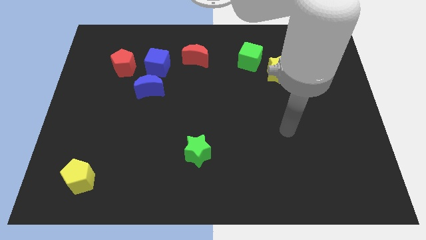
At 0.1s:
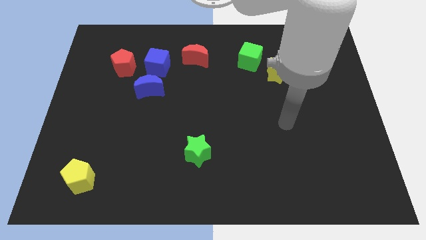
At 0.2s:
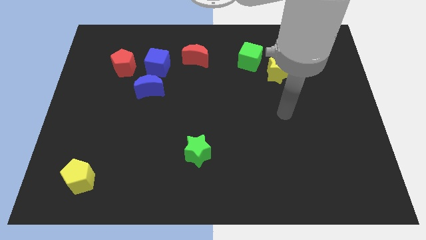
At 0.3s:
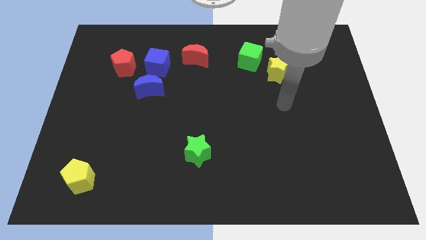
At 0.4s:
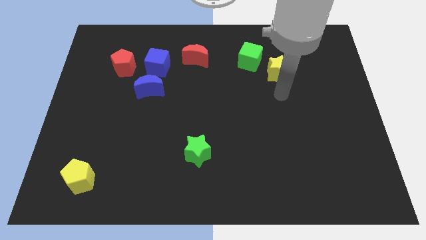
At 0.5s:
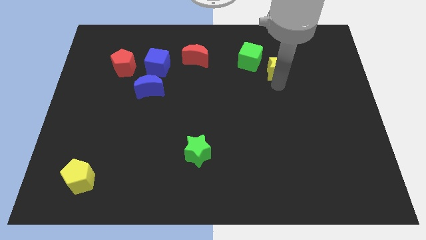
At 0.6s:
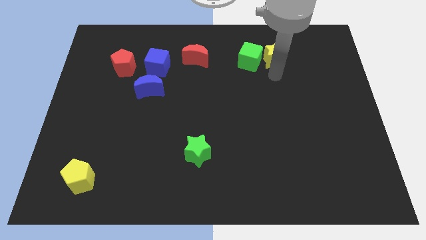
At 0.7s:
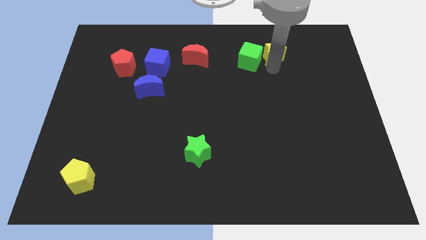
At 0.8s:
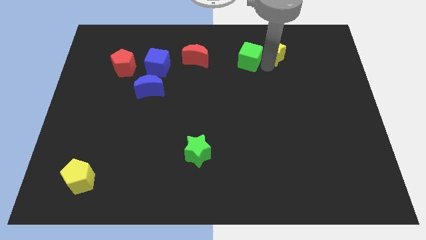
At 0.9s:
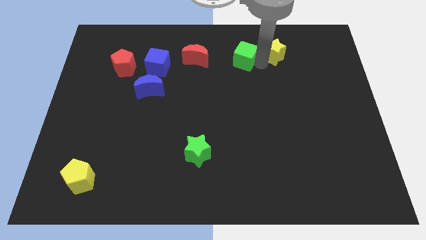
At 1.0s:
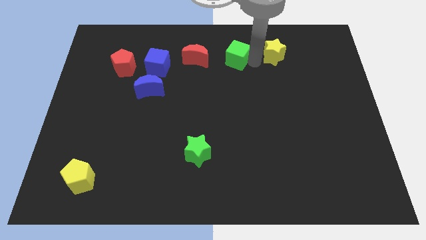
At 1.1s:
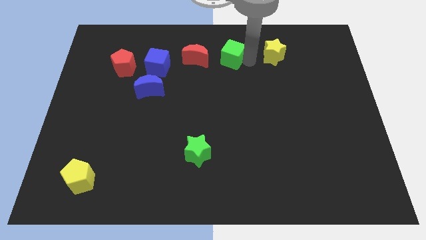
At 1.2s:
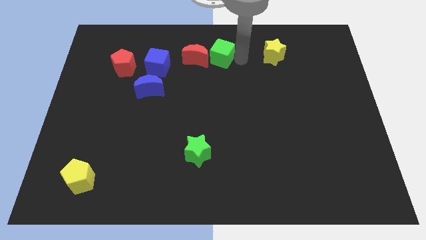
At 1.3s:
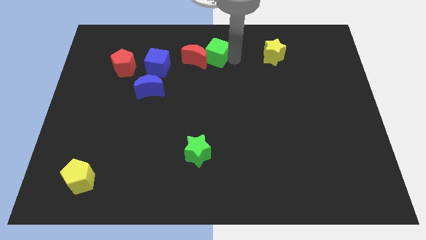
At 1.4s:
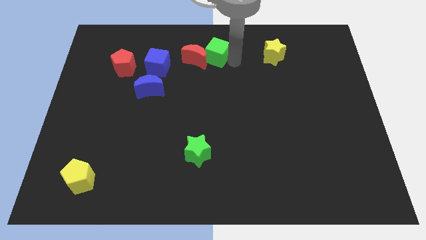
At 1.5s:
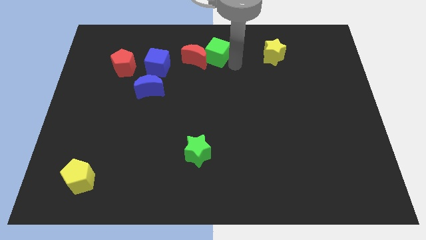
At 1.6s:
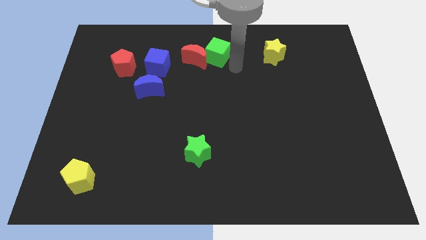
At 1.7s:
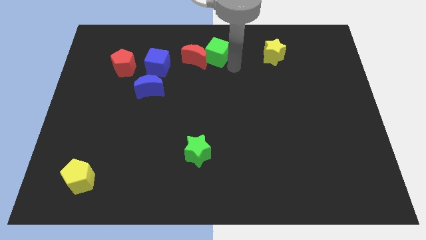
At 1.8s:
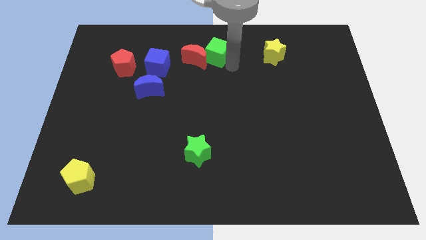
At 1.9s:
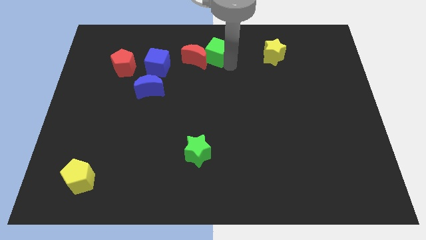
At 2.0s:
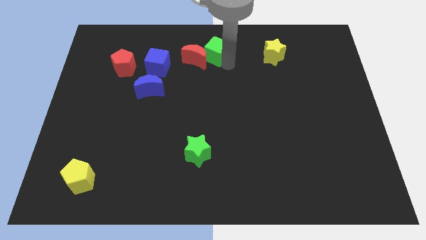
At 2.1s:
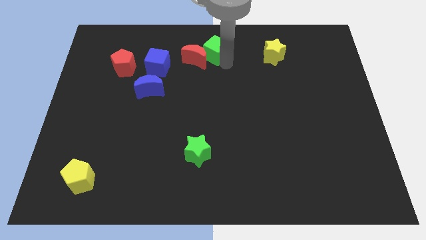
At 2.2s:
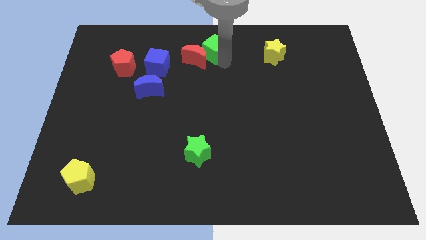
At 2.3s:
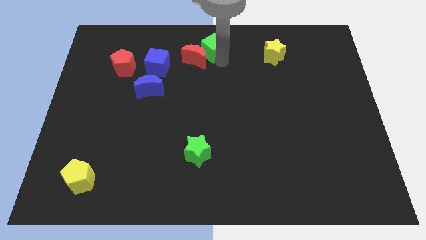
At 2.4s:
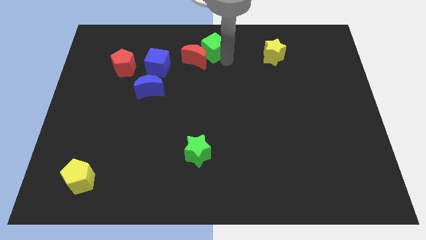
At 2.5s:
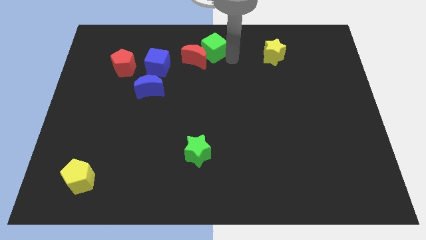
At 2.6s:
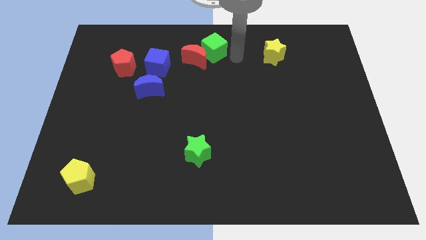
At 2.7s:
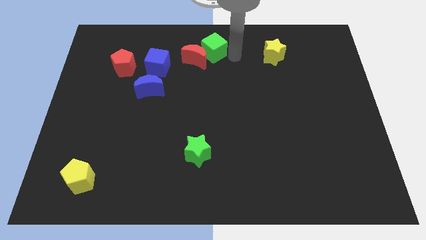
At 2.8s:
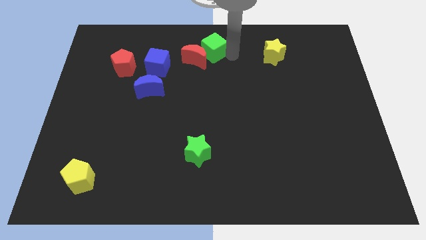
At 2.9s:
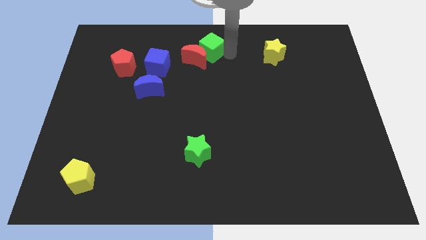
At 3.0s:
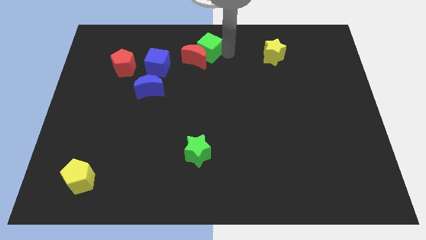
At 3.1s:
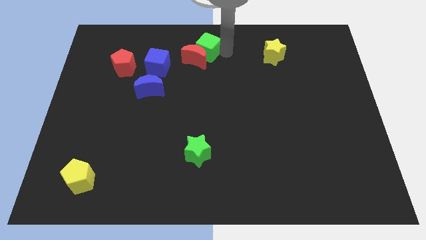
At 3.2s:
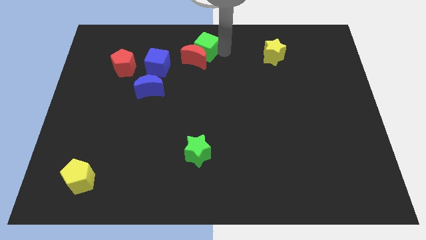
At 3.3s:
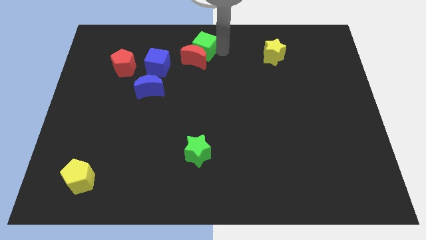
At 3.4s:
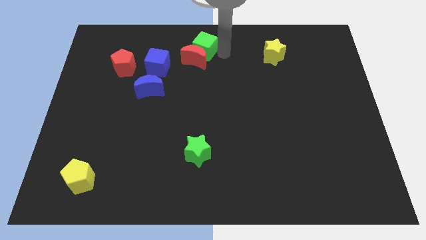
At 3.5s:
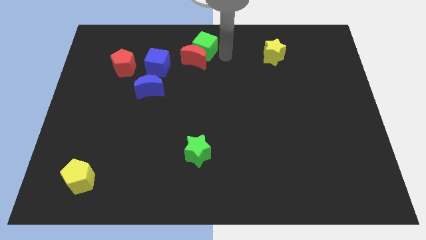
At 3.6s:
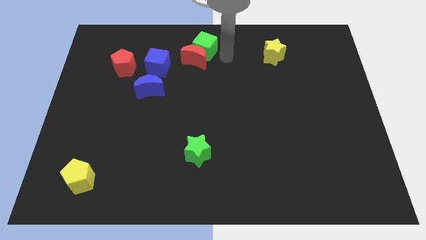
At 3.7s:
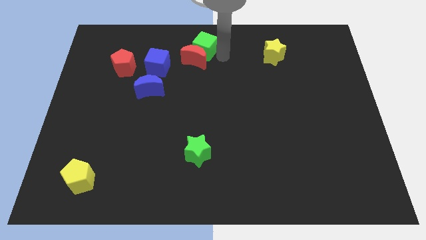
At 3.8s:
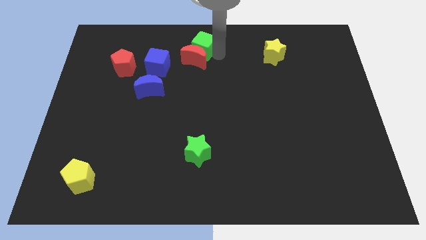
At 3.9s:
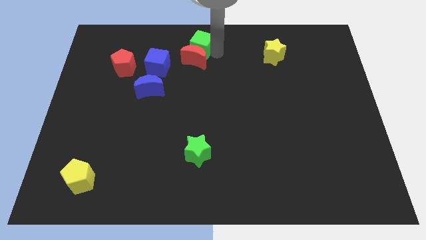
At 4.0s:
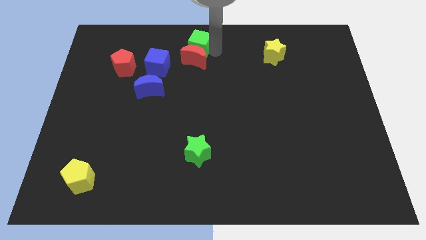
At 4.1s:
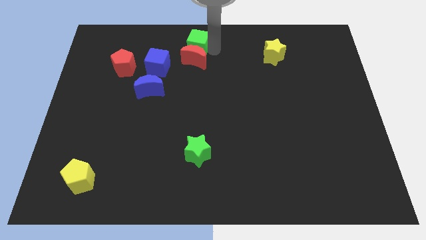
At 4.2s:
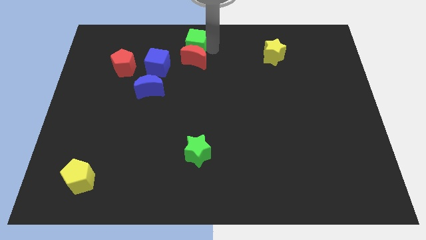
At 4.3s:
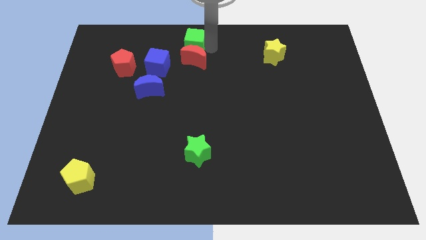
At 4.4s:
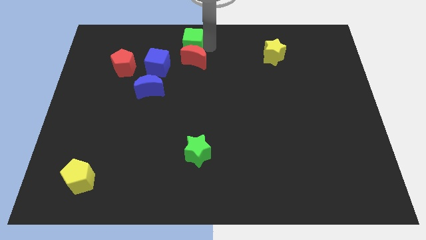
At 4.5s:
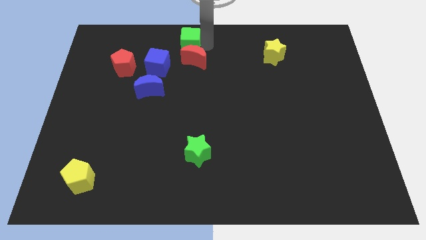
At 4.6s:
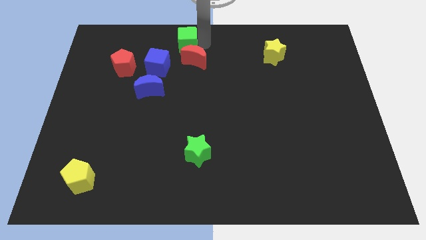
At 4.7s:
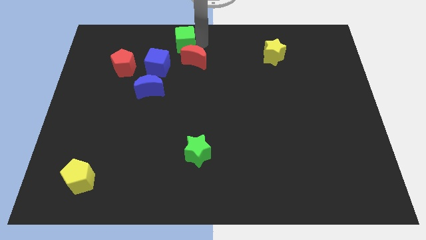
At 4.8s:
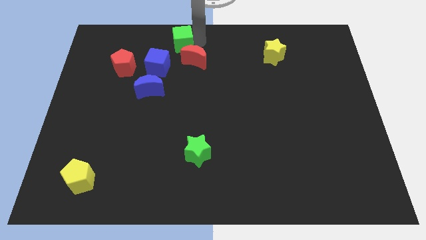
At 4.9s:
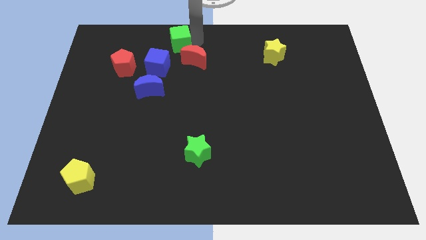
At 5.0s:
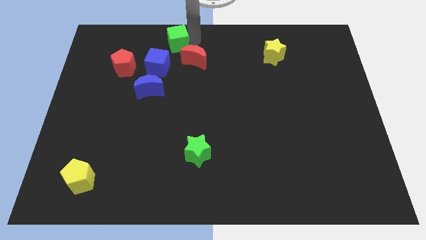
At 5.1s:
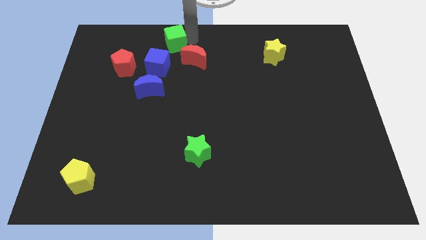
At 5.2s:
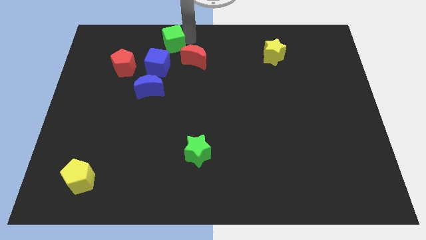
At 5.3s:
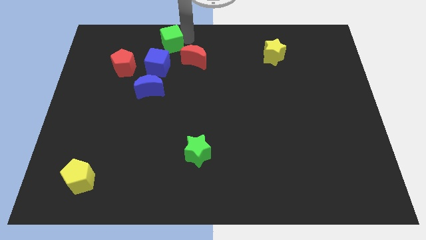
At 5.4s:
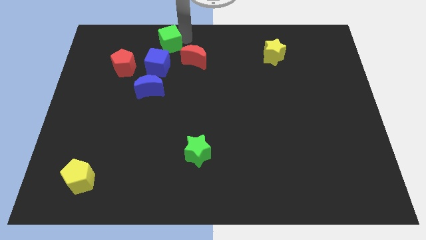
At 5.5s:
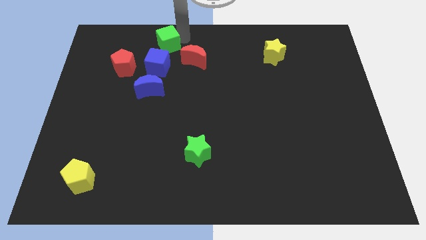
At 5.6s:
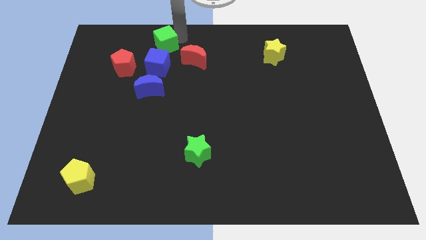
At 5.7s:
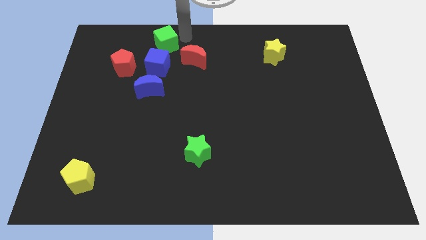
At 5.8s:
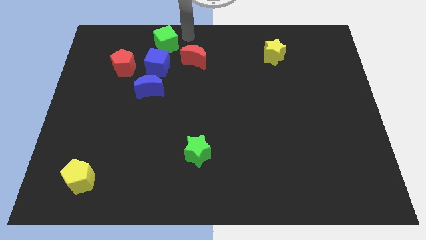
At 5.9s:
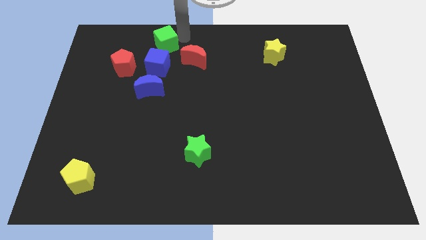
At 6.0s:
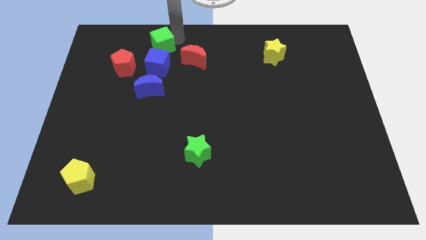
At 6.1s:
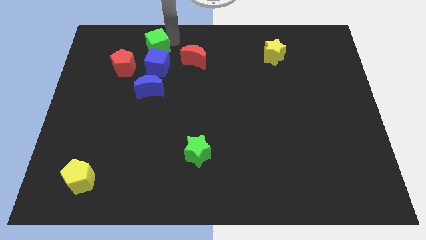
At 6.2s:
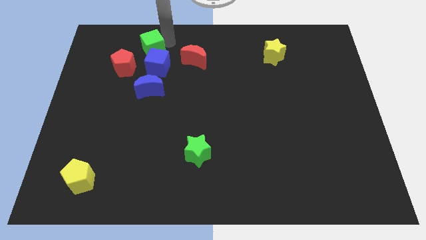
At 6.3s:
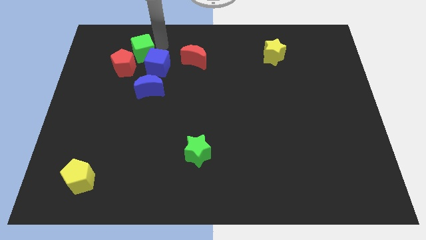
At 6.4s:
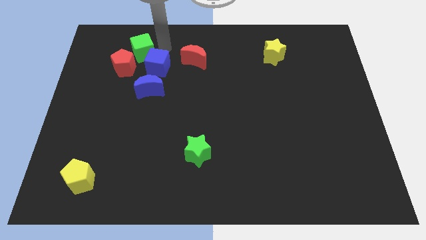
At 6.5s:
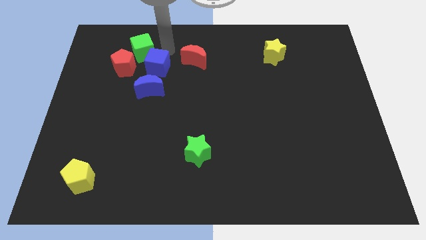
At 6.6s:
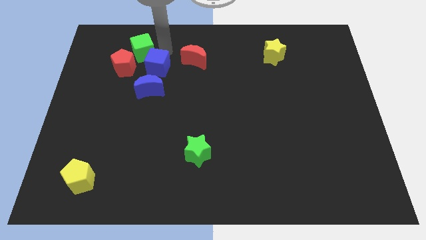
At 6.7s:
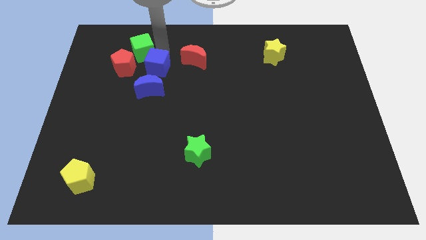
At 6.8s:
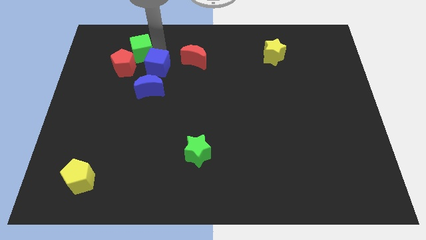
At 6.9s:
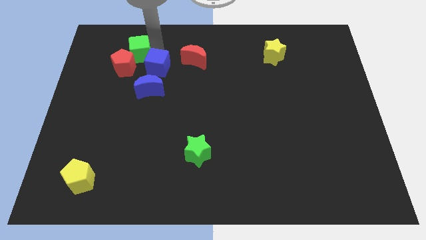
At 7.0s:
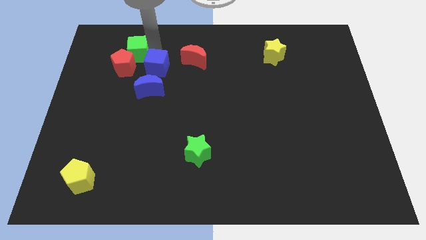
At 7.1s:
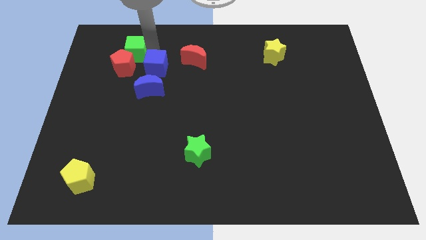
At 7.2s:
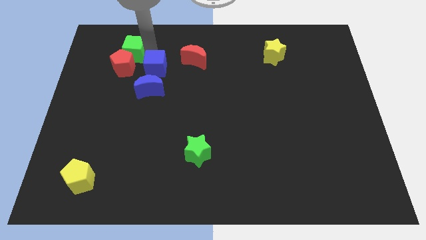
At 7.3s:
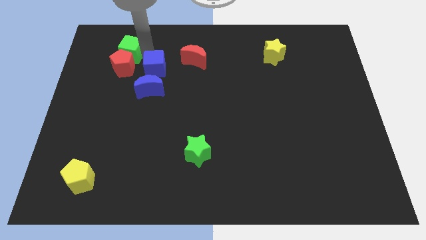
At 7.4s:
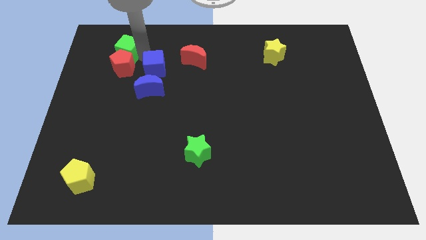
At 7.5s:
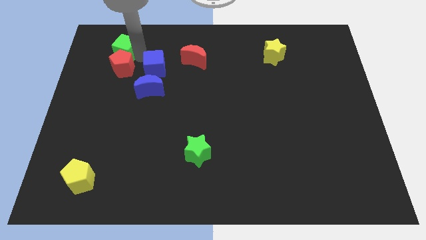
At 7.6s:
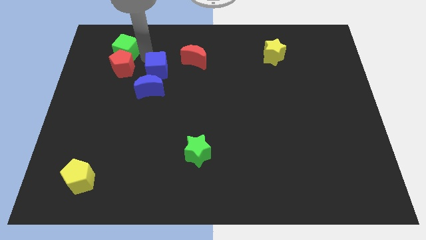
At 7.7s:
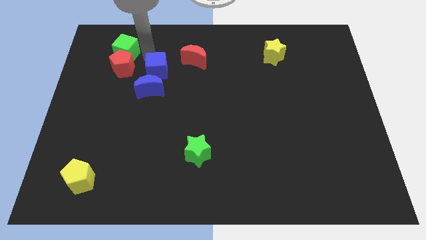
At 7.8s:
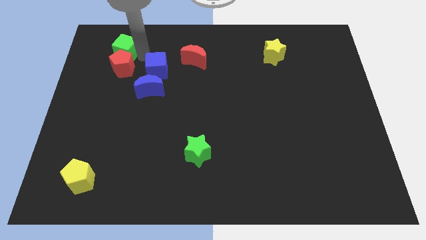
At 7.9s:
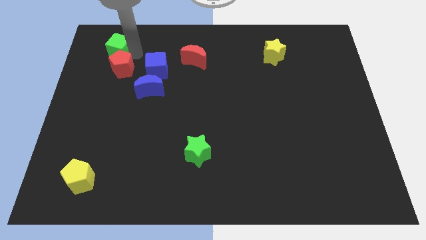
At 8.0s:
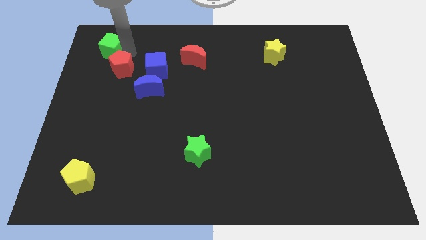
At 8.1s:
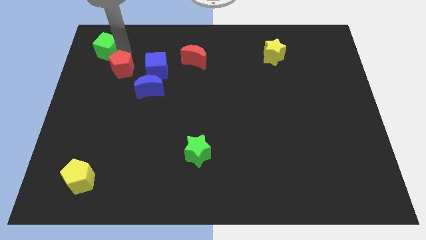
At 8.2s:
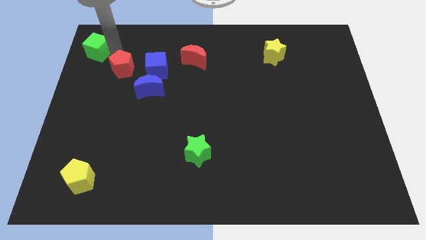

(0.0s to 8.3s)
move the green cube to the top left of the board
